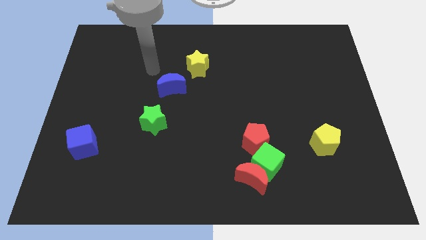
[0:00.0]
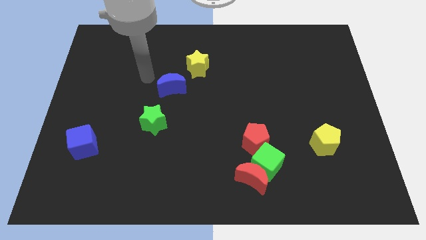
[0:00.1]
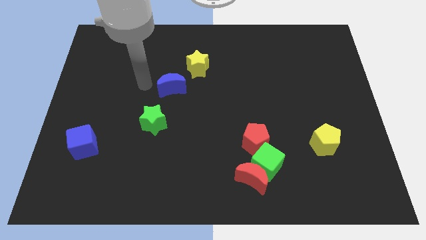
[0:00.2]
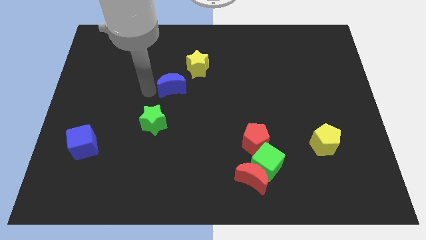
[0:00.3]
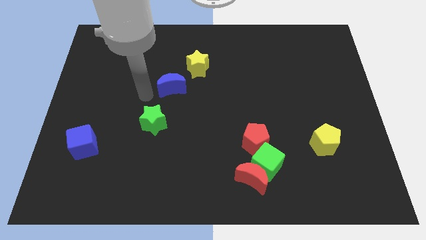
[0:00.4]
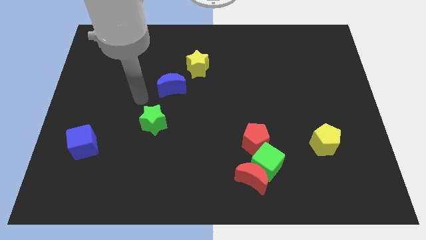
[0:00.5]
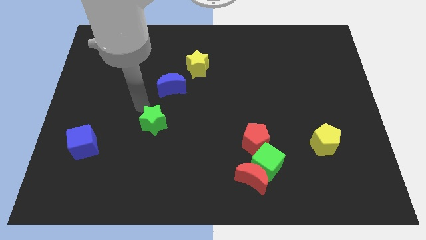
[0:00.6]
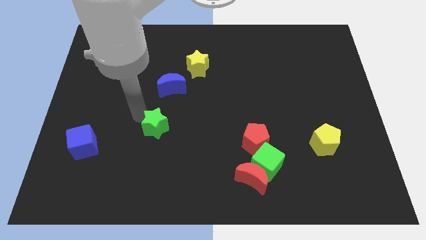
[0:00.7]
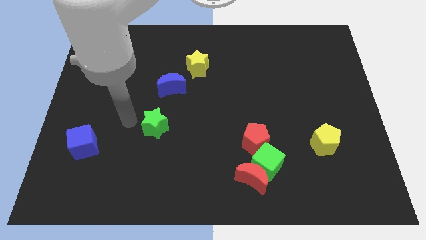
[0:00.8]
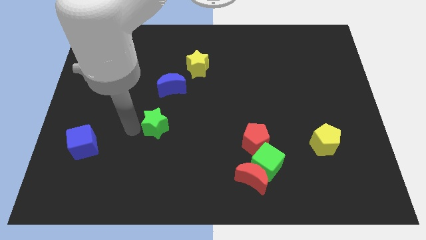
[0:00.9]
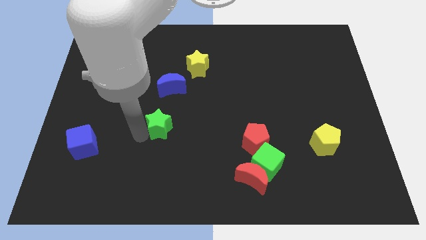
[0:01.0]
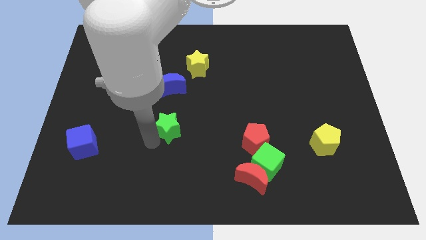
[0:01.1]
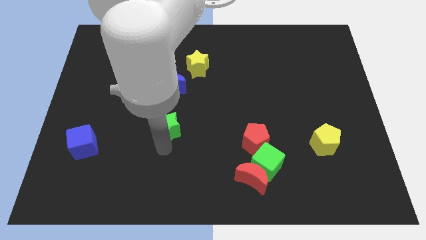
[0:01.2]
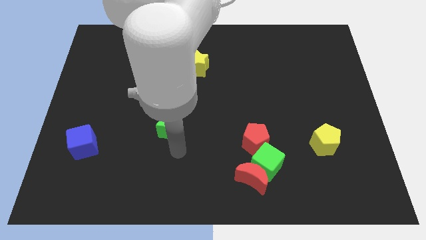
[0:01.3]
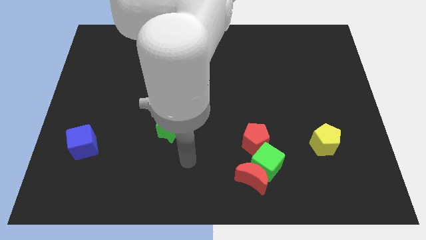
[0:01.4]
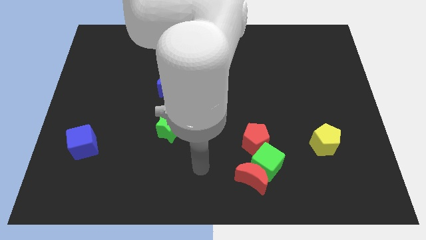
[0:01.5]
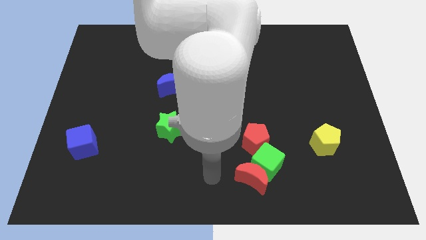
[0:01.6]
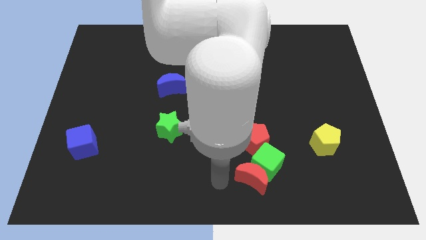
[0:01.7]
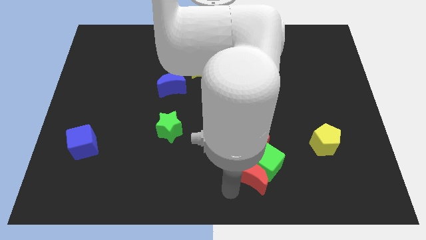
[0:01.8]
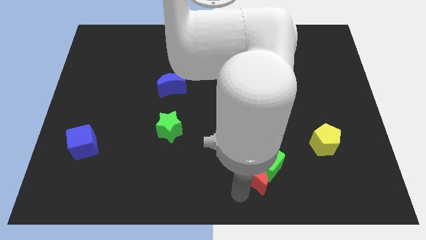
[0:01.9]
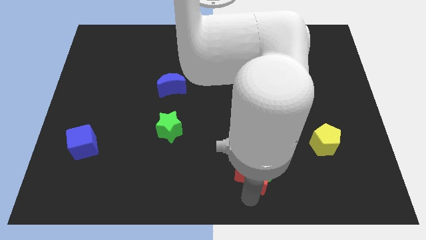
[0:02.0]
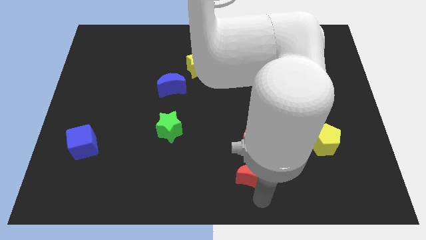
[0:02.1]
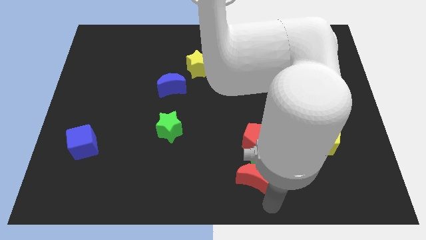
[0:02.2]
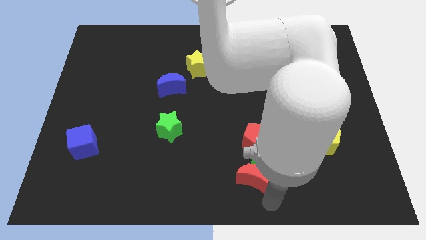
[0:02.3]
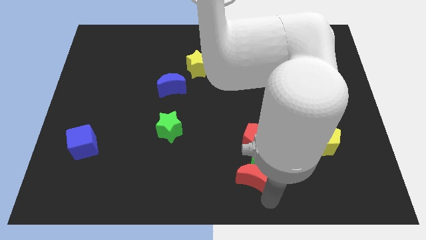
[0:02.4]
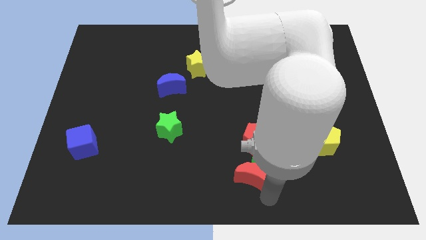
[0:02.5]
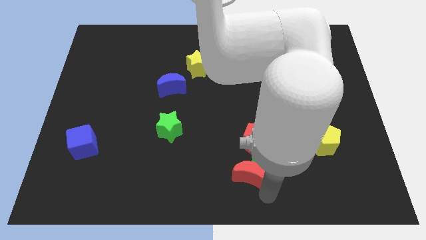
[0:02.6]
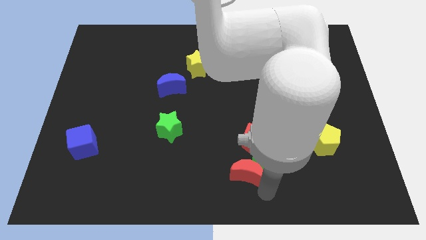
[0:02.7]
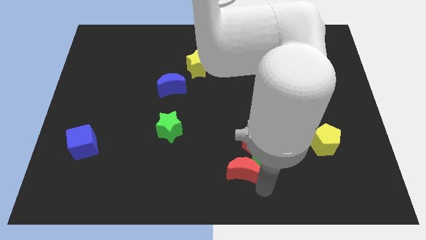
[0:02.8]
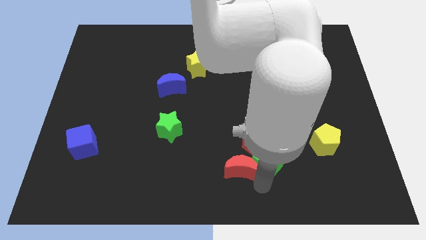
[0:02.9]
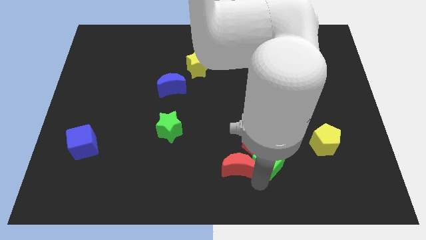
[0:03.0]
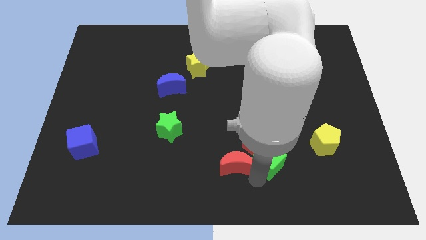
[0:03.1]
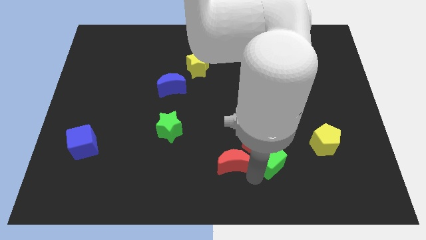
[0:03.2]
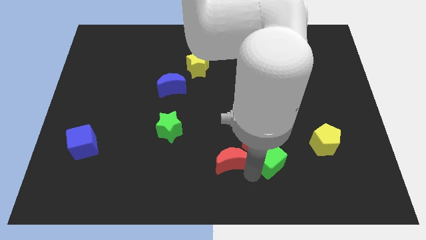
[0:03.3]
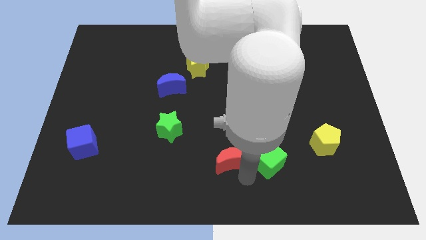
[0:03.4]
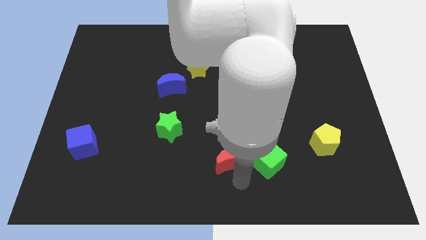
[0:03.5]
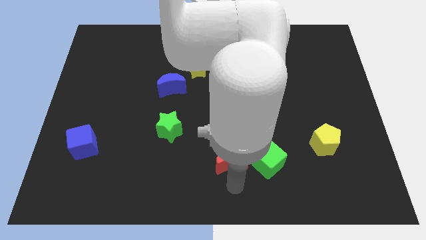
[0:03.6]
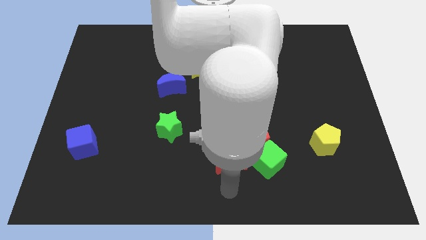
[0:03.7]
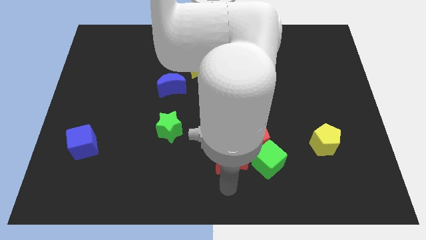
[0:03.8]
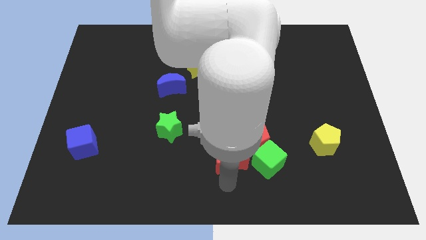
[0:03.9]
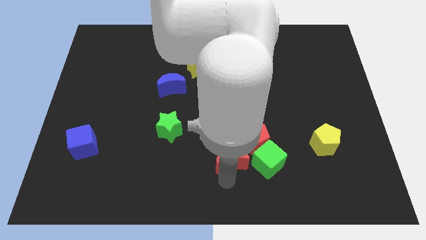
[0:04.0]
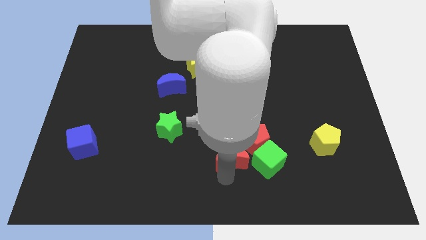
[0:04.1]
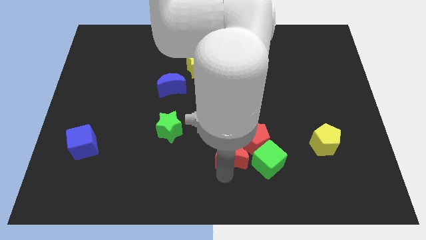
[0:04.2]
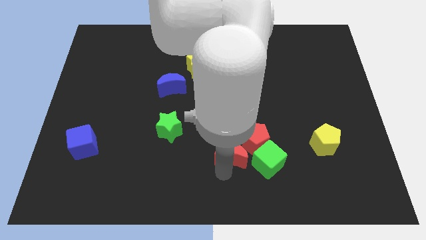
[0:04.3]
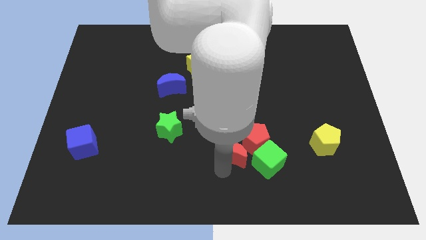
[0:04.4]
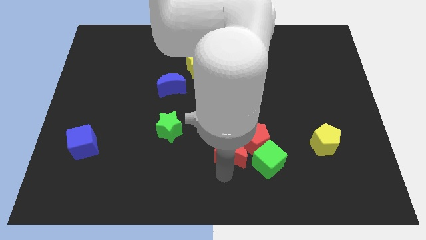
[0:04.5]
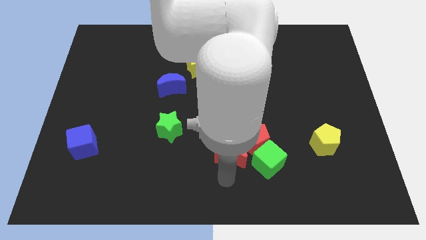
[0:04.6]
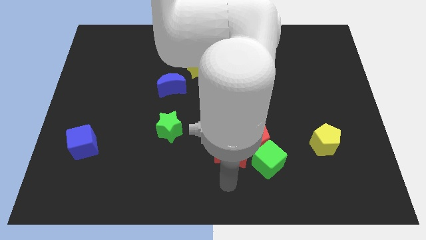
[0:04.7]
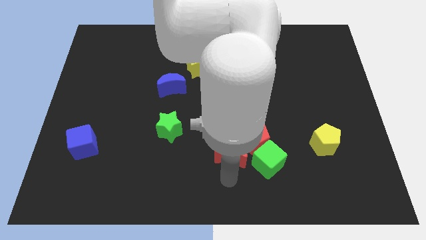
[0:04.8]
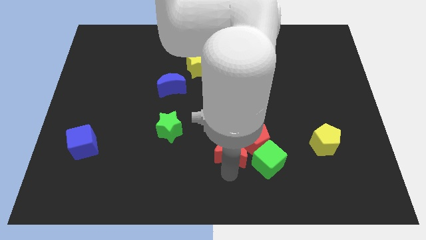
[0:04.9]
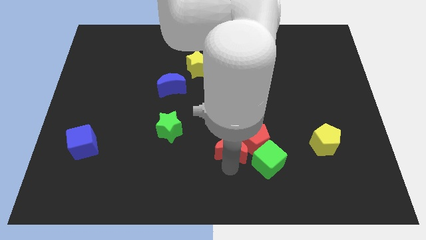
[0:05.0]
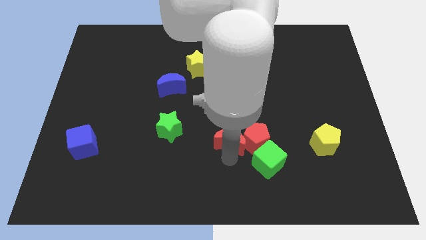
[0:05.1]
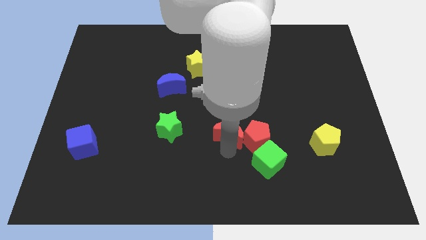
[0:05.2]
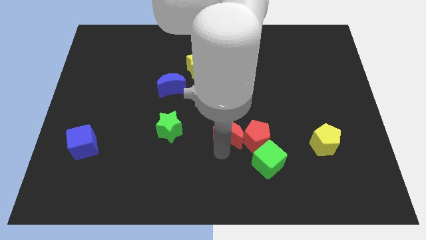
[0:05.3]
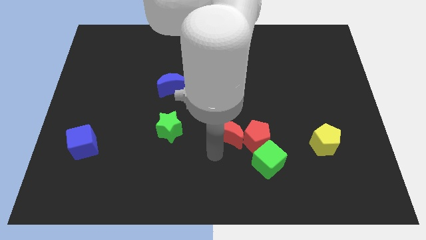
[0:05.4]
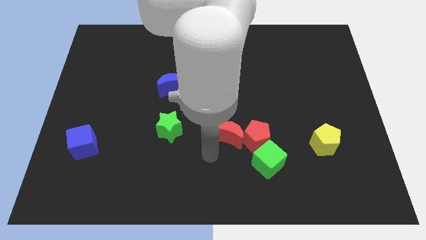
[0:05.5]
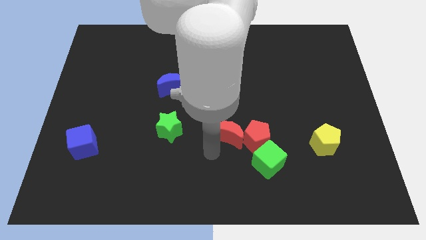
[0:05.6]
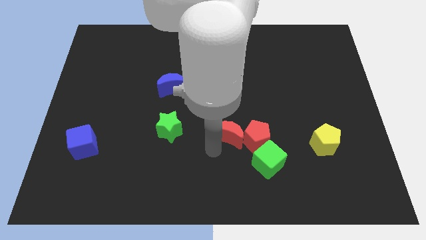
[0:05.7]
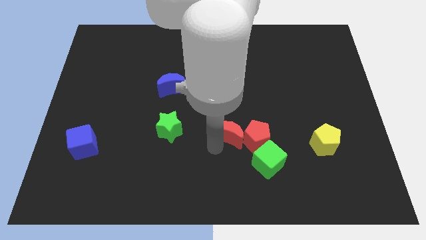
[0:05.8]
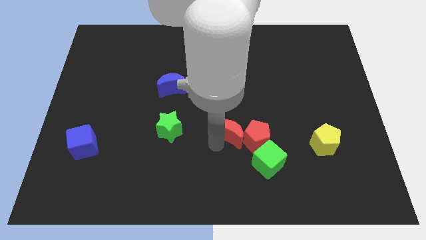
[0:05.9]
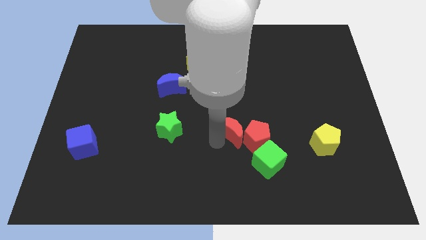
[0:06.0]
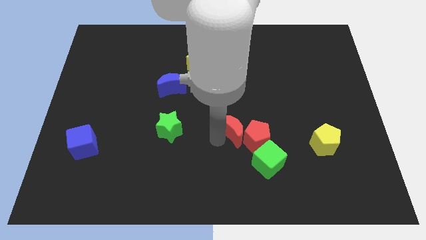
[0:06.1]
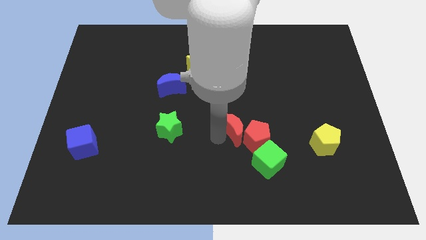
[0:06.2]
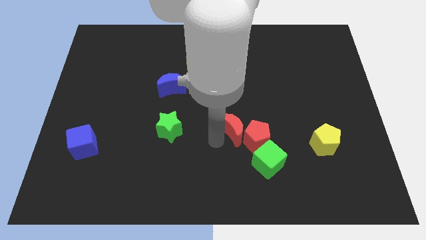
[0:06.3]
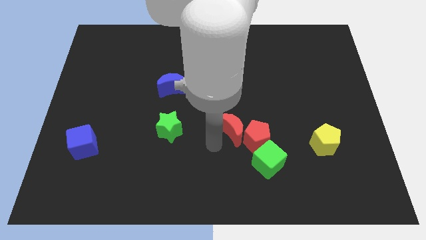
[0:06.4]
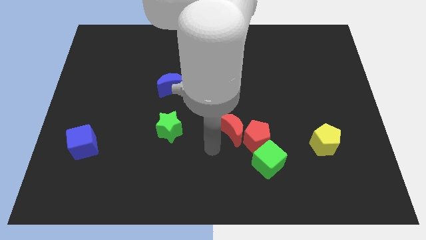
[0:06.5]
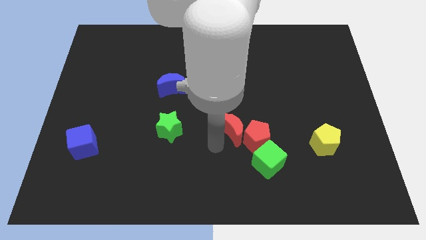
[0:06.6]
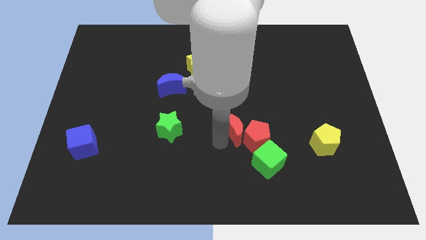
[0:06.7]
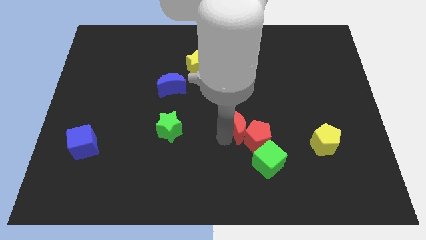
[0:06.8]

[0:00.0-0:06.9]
move the red moon to the top of the red pentagon
